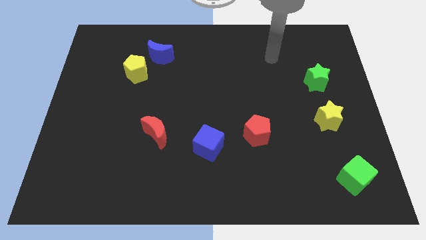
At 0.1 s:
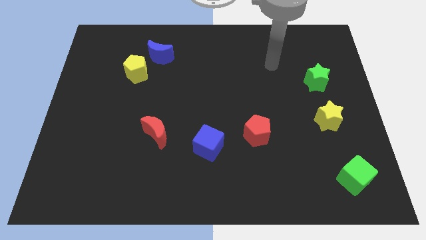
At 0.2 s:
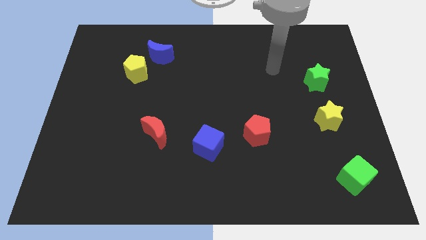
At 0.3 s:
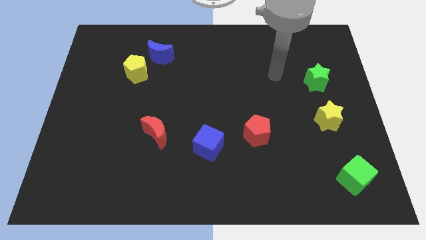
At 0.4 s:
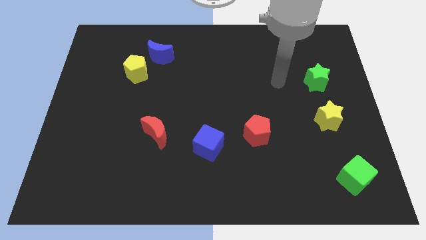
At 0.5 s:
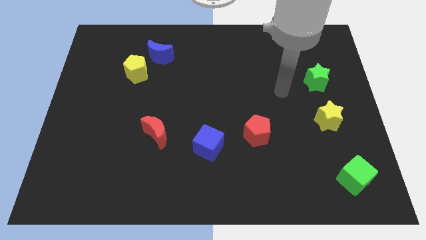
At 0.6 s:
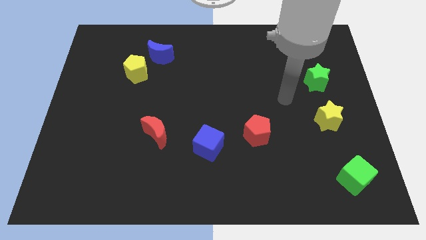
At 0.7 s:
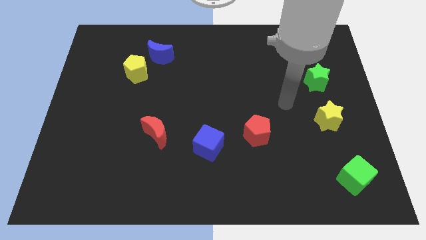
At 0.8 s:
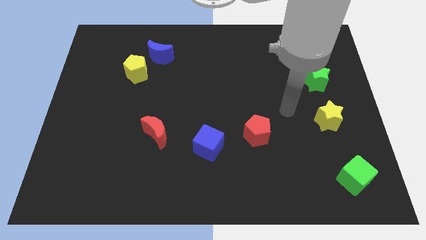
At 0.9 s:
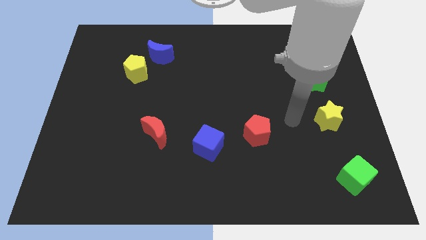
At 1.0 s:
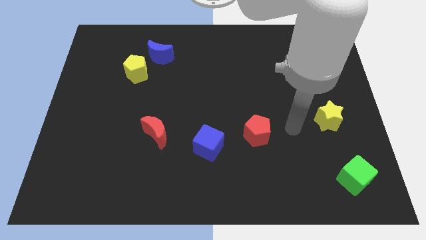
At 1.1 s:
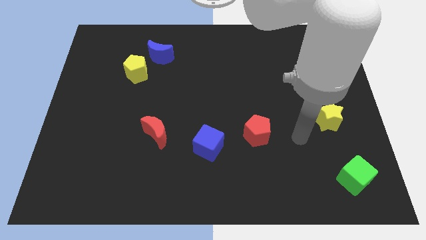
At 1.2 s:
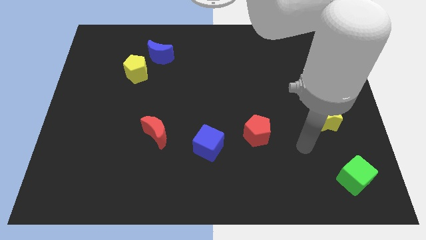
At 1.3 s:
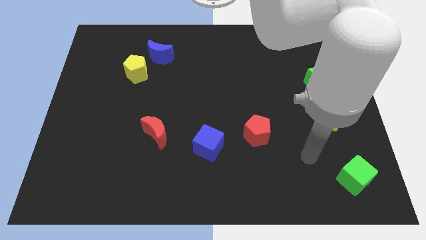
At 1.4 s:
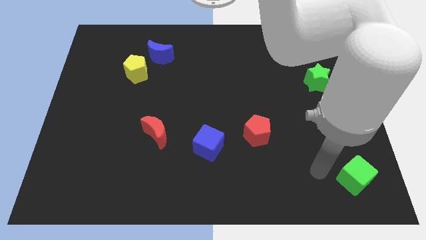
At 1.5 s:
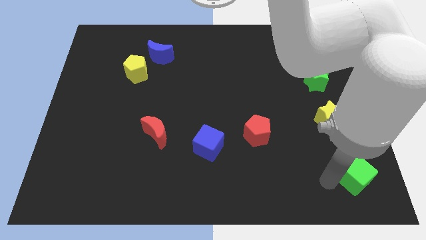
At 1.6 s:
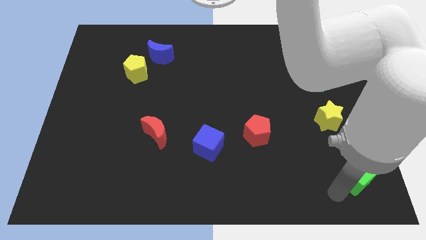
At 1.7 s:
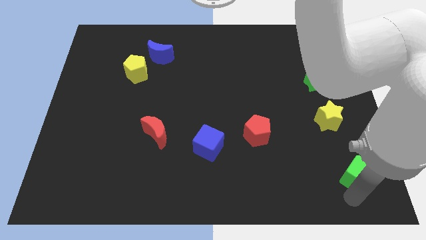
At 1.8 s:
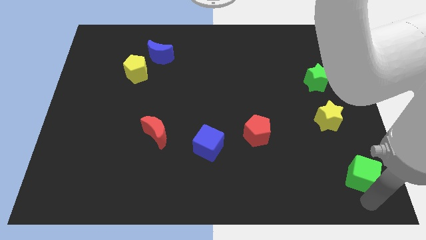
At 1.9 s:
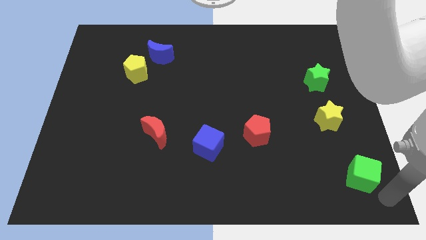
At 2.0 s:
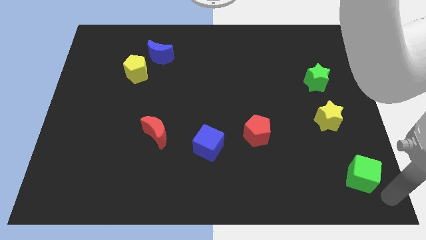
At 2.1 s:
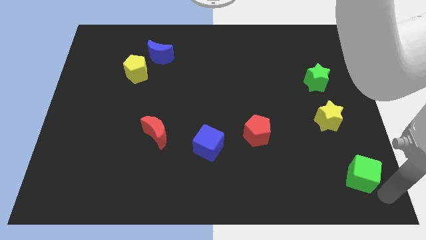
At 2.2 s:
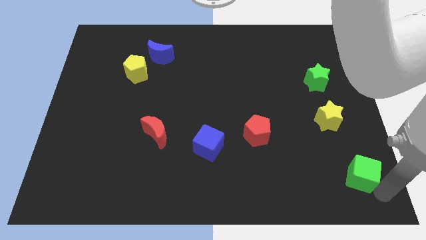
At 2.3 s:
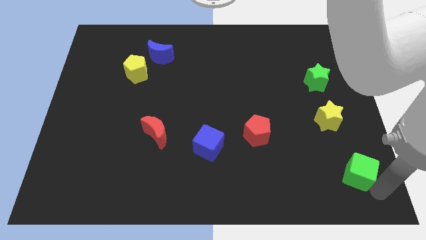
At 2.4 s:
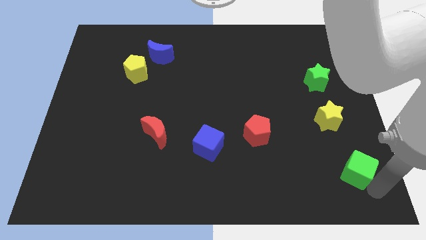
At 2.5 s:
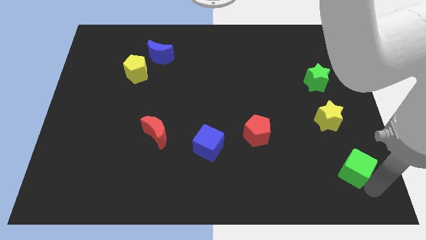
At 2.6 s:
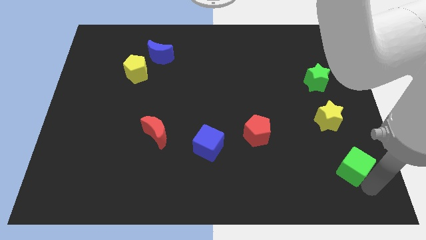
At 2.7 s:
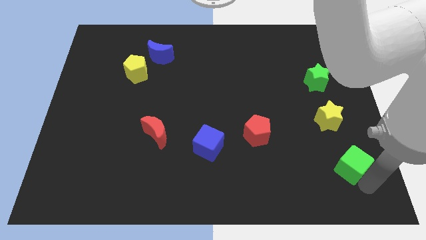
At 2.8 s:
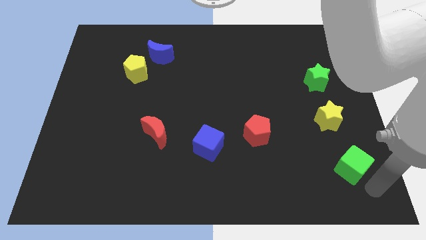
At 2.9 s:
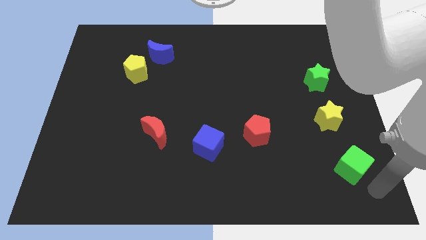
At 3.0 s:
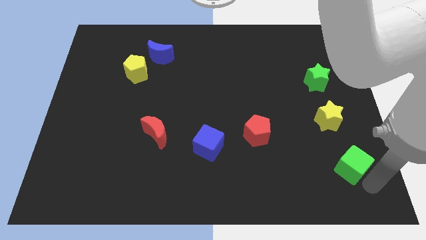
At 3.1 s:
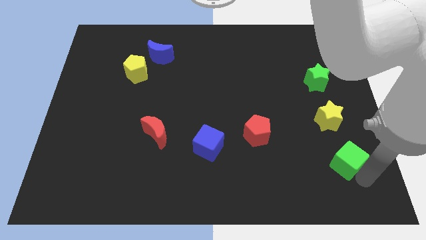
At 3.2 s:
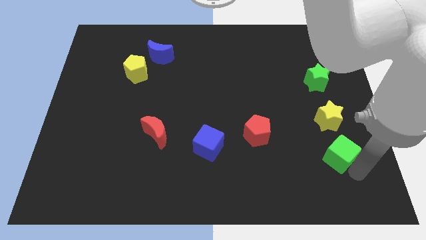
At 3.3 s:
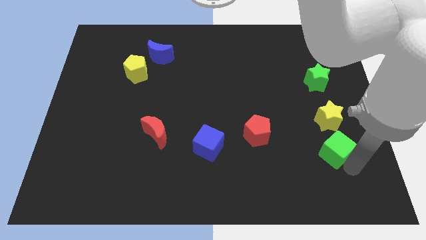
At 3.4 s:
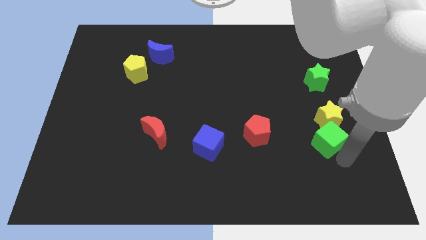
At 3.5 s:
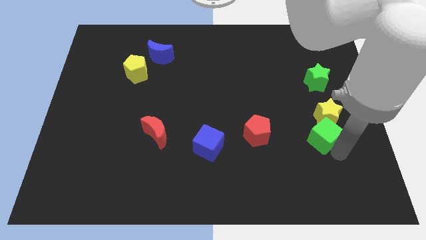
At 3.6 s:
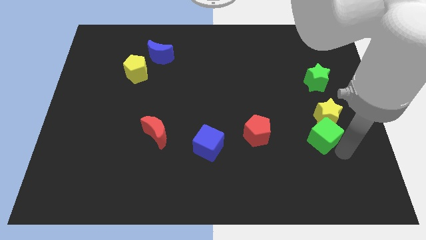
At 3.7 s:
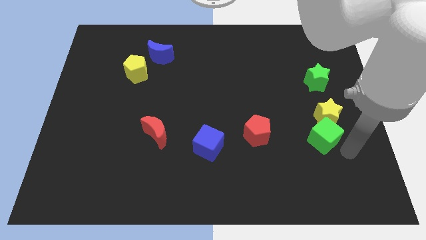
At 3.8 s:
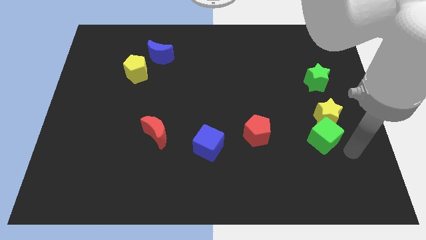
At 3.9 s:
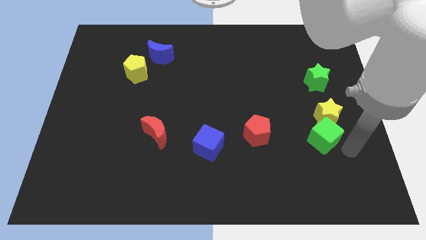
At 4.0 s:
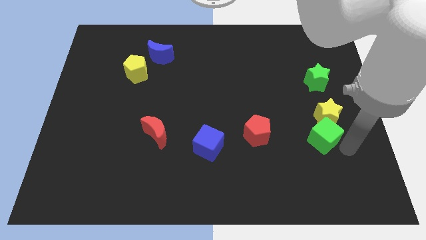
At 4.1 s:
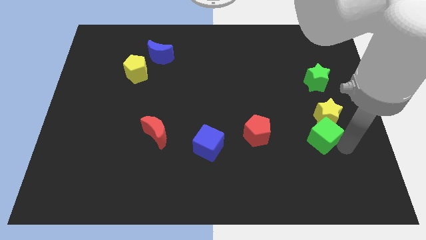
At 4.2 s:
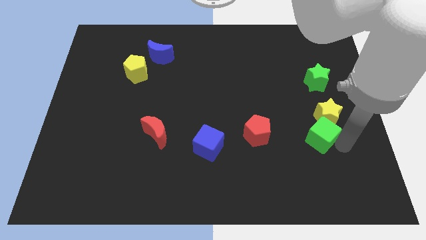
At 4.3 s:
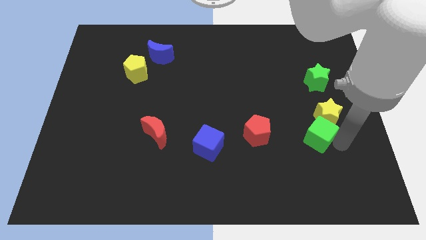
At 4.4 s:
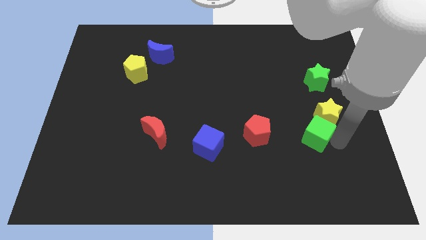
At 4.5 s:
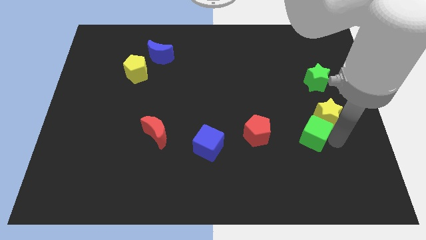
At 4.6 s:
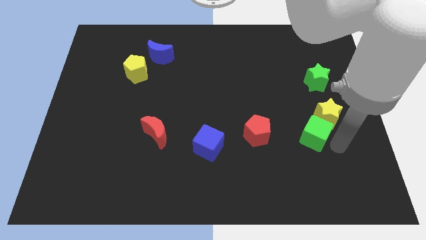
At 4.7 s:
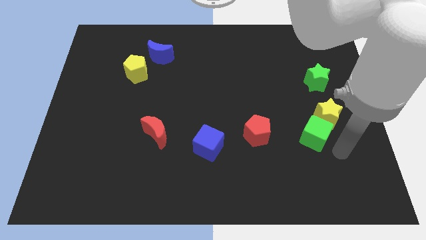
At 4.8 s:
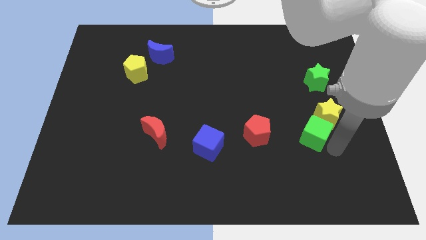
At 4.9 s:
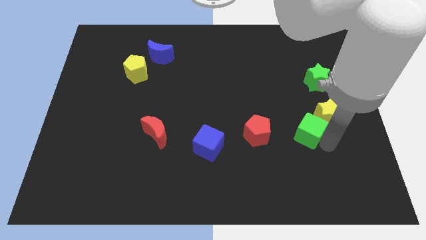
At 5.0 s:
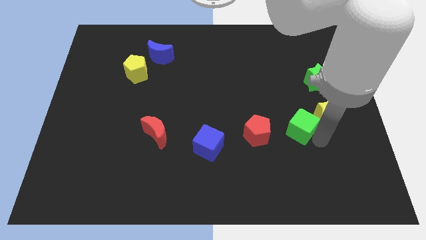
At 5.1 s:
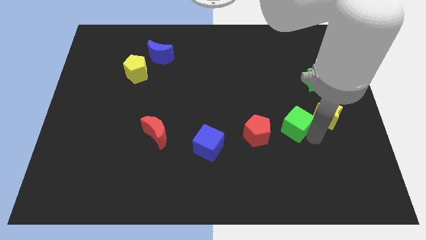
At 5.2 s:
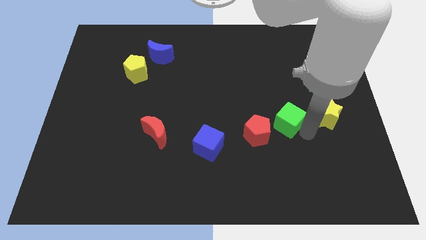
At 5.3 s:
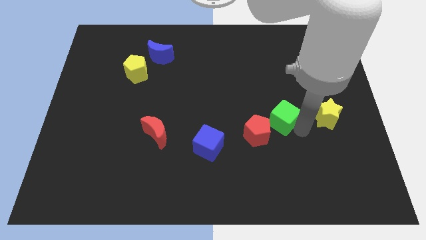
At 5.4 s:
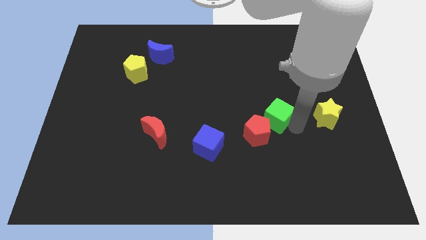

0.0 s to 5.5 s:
move the green cube upwards and then left

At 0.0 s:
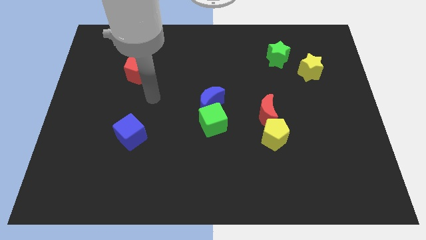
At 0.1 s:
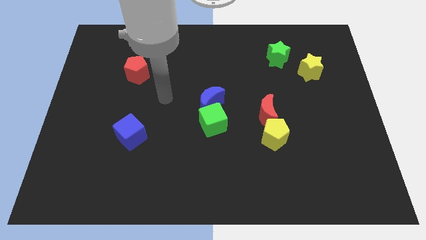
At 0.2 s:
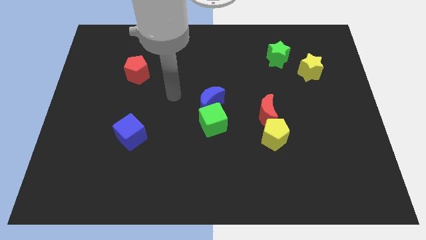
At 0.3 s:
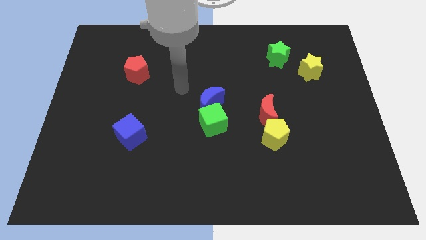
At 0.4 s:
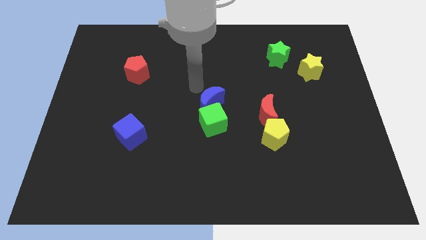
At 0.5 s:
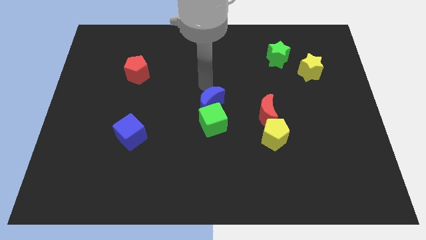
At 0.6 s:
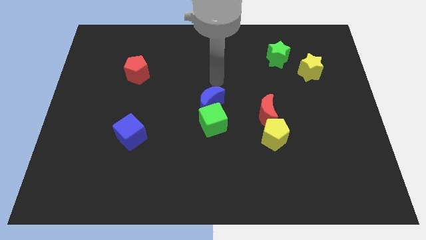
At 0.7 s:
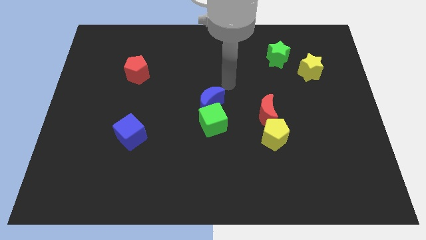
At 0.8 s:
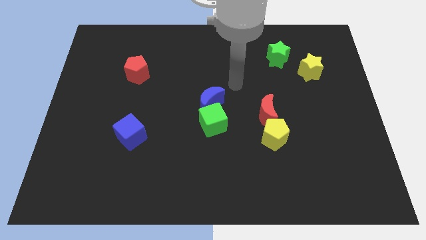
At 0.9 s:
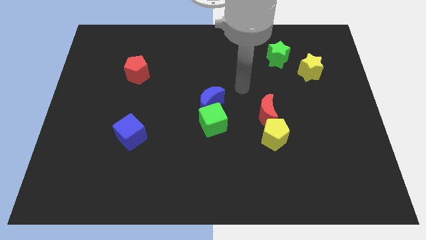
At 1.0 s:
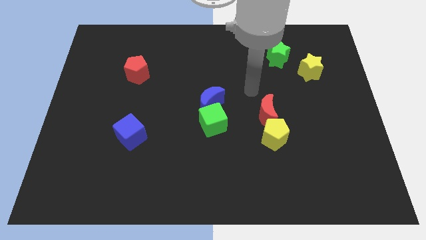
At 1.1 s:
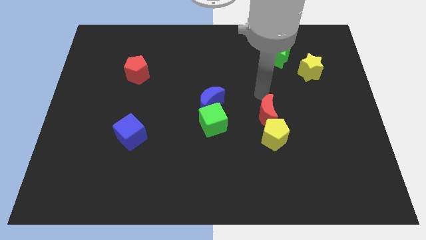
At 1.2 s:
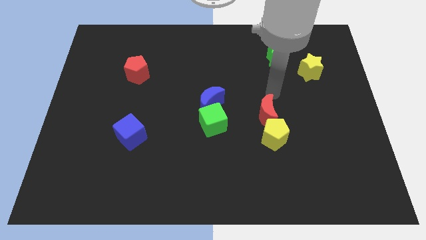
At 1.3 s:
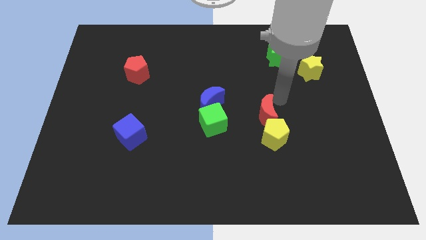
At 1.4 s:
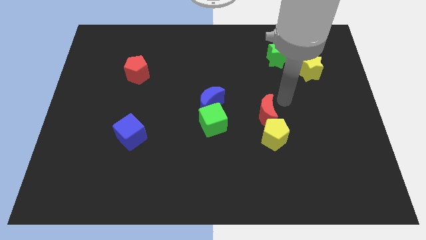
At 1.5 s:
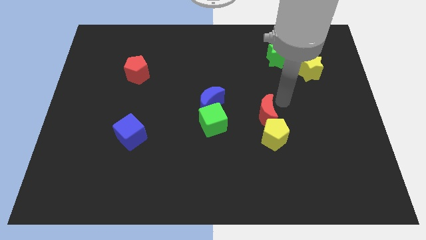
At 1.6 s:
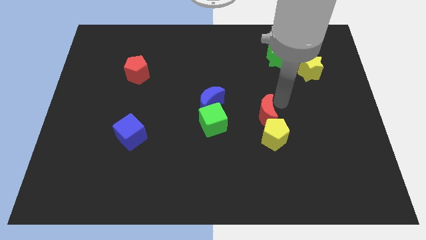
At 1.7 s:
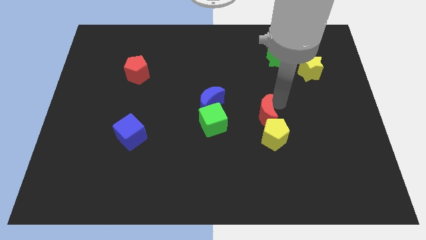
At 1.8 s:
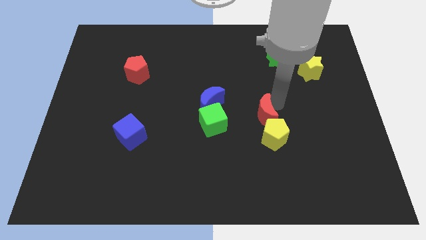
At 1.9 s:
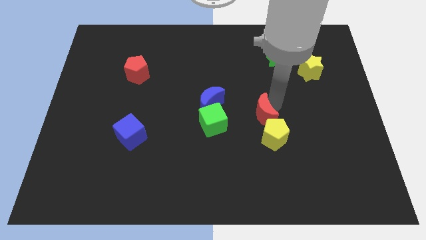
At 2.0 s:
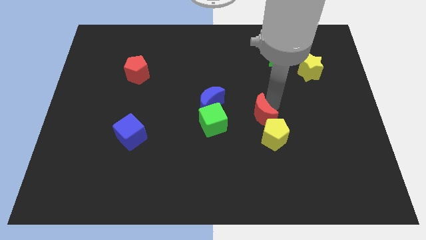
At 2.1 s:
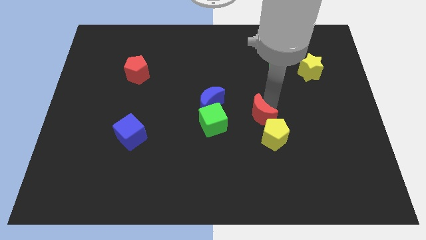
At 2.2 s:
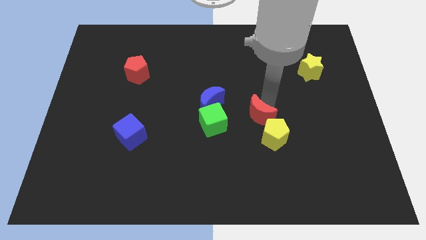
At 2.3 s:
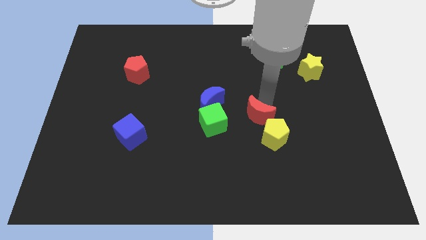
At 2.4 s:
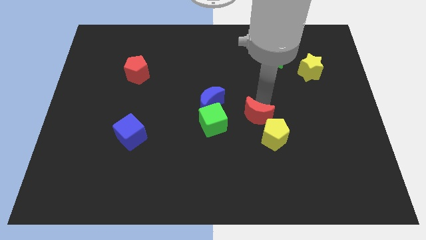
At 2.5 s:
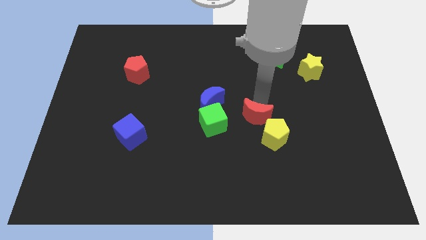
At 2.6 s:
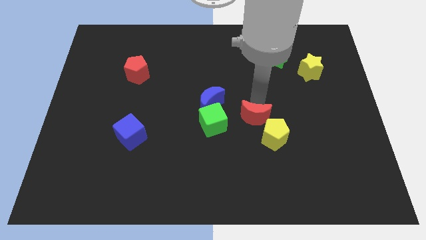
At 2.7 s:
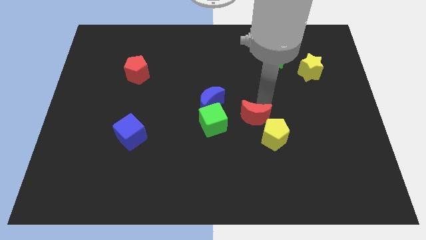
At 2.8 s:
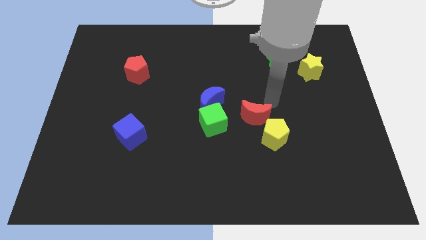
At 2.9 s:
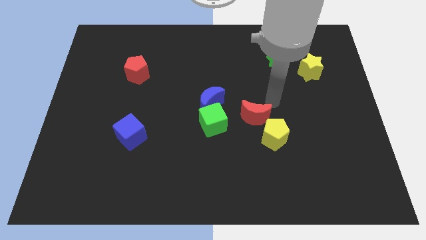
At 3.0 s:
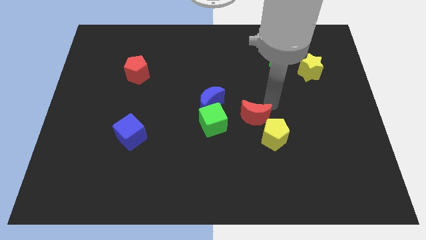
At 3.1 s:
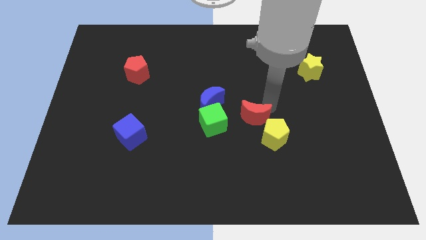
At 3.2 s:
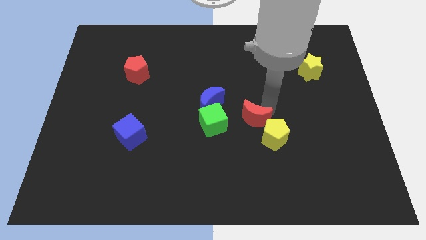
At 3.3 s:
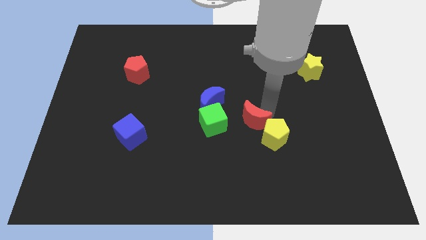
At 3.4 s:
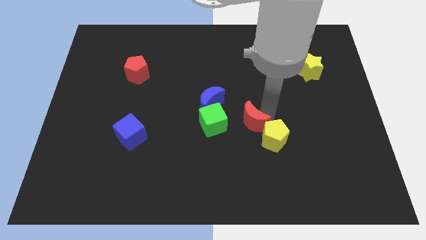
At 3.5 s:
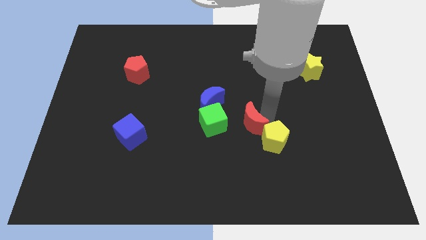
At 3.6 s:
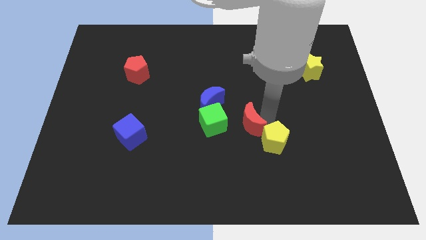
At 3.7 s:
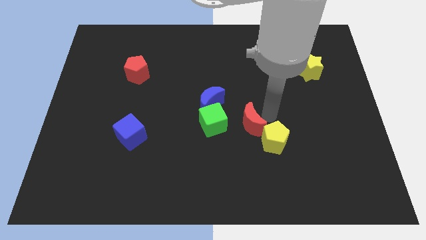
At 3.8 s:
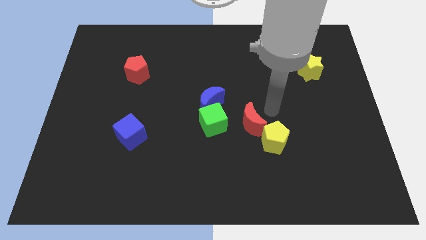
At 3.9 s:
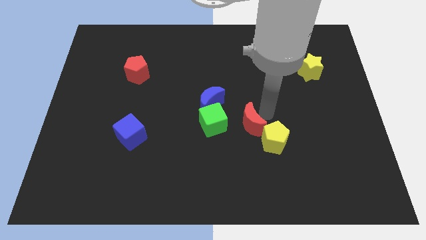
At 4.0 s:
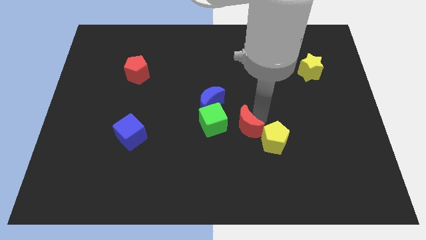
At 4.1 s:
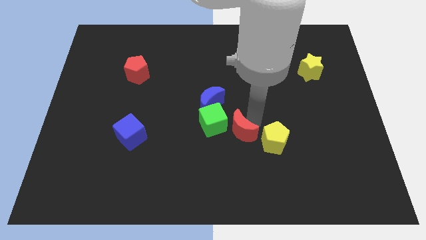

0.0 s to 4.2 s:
push the red moon slightly downwards and to the left
